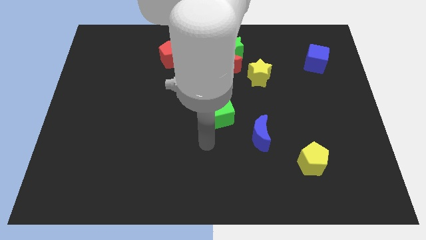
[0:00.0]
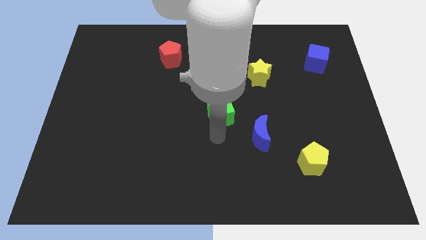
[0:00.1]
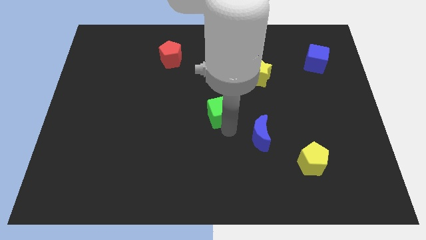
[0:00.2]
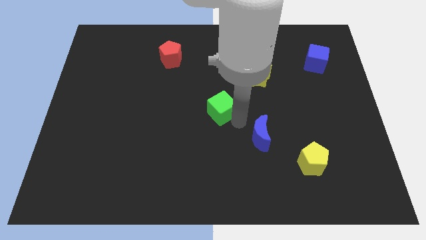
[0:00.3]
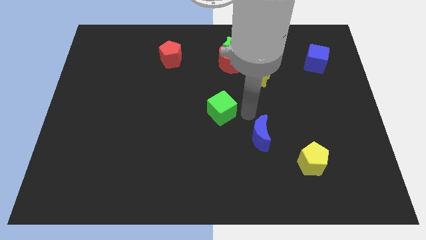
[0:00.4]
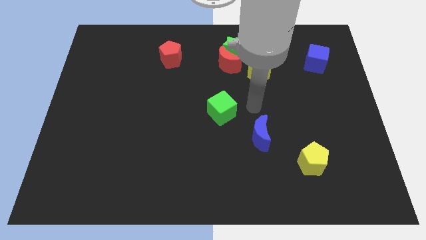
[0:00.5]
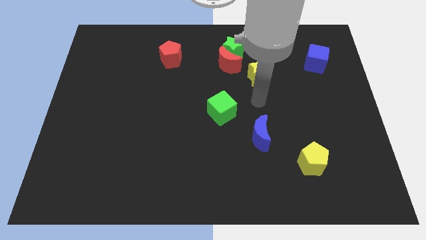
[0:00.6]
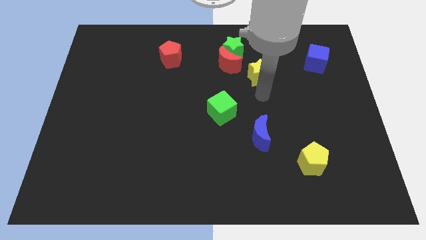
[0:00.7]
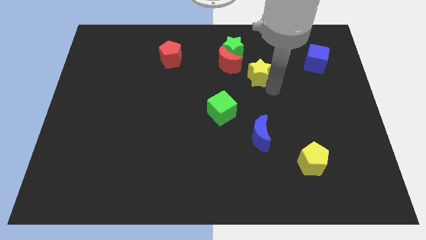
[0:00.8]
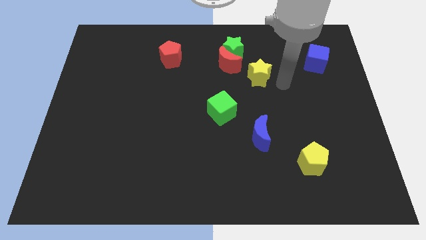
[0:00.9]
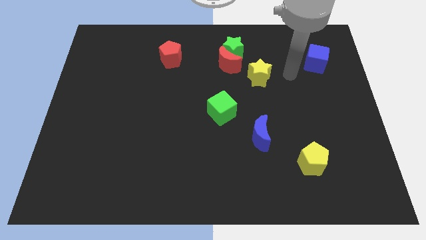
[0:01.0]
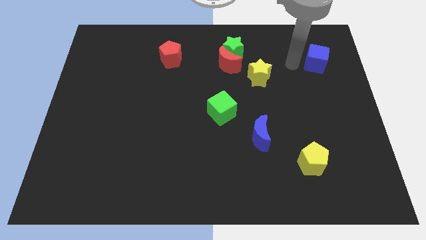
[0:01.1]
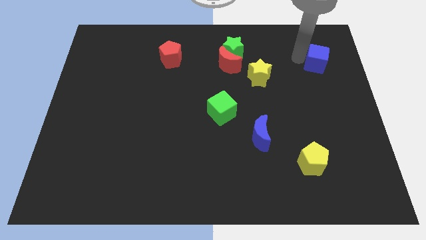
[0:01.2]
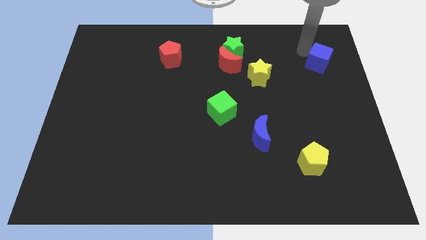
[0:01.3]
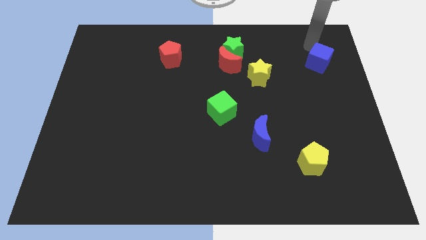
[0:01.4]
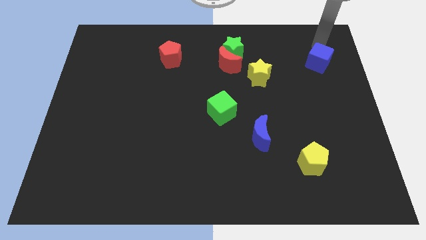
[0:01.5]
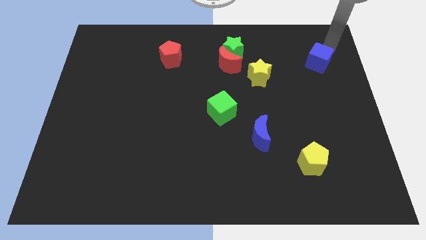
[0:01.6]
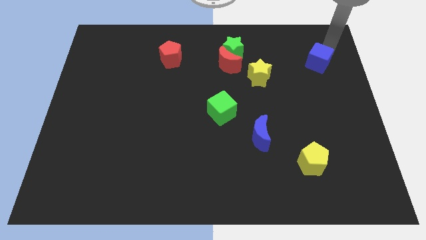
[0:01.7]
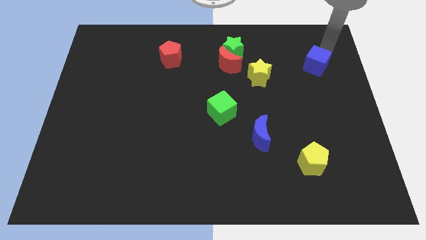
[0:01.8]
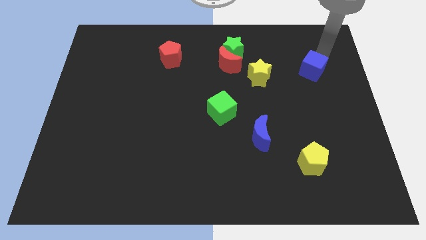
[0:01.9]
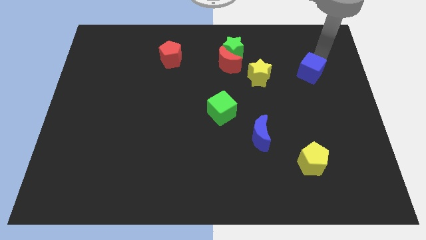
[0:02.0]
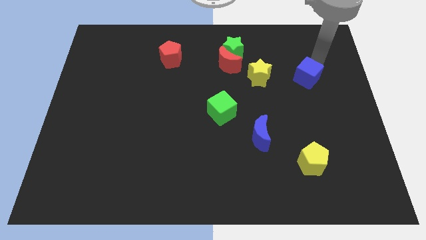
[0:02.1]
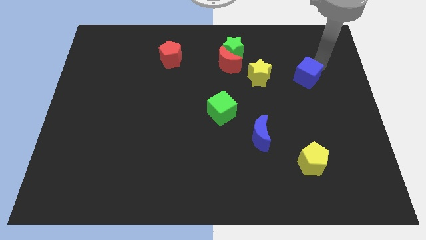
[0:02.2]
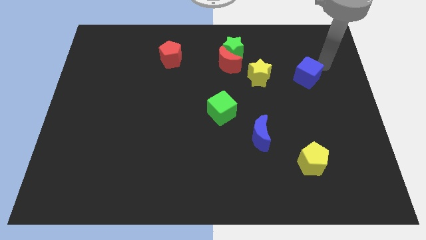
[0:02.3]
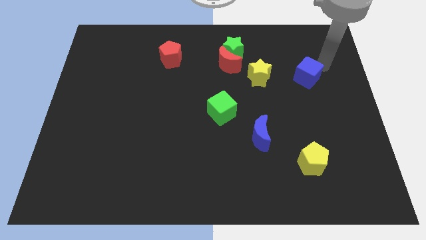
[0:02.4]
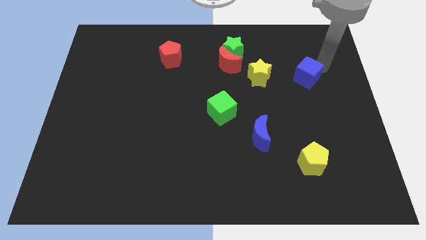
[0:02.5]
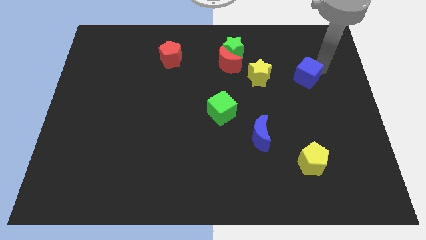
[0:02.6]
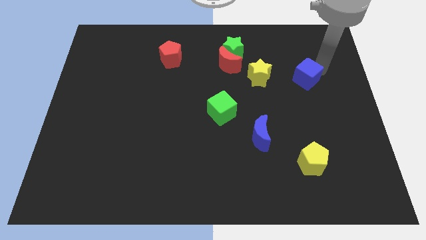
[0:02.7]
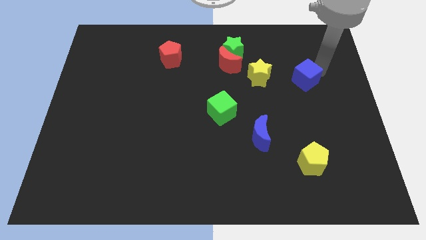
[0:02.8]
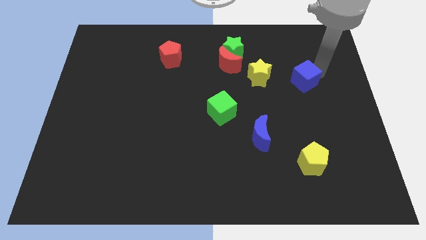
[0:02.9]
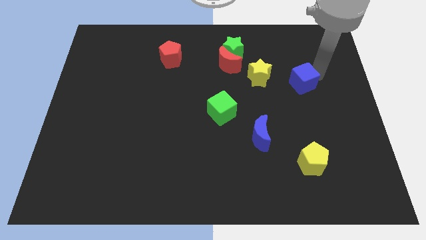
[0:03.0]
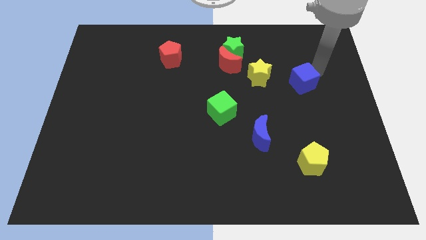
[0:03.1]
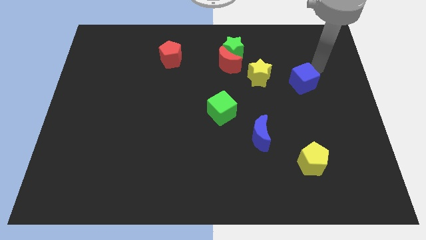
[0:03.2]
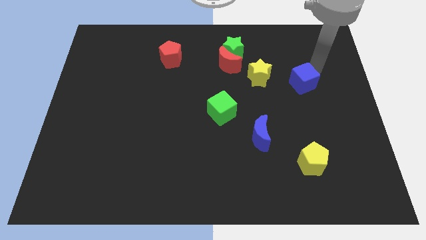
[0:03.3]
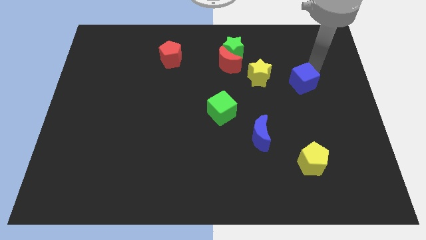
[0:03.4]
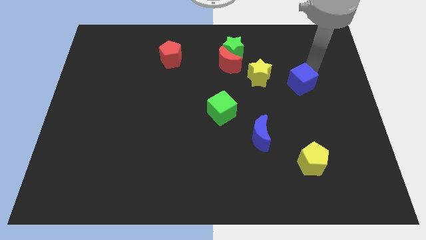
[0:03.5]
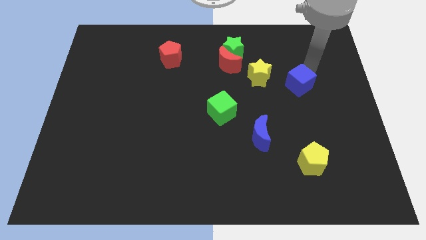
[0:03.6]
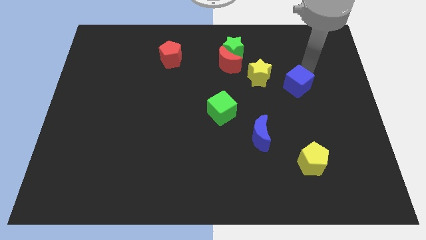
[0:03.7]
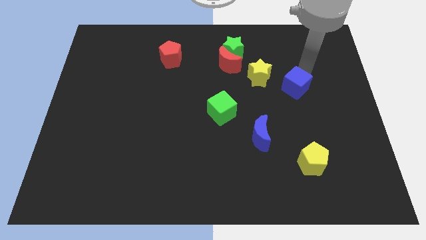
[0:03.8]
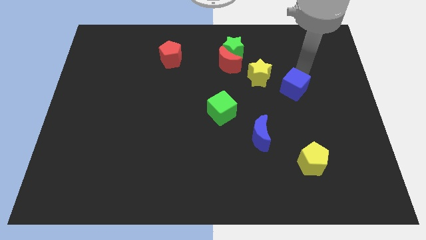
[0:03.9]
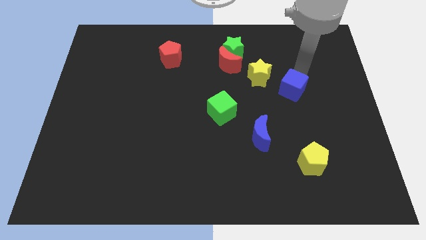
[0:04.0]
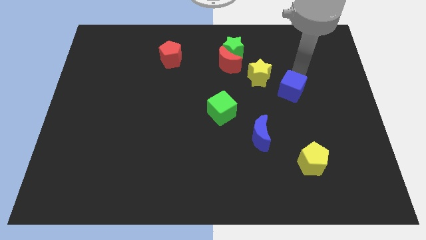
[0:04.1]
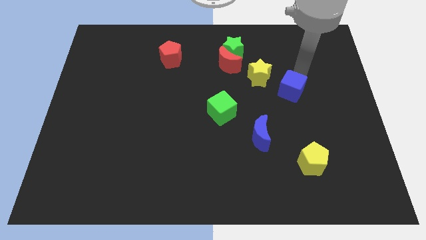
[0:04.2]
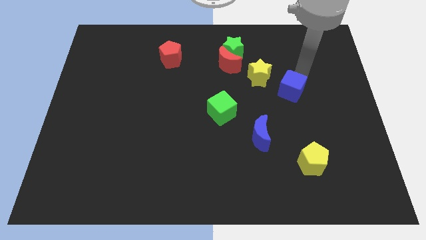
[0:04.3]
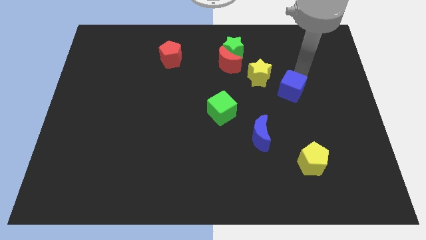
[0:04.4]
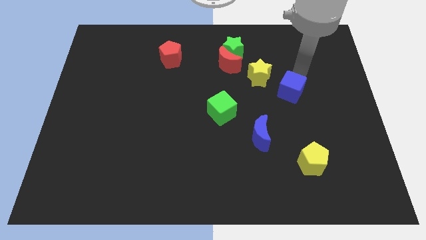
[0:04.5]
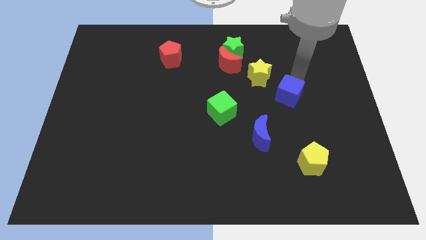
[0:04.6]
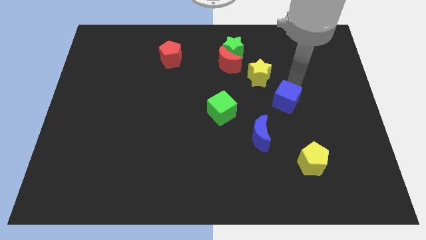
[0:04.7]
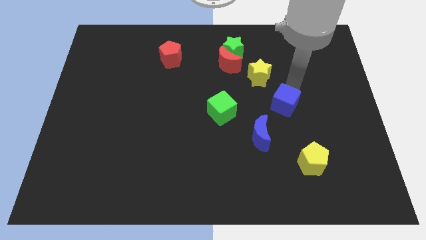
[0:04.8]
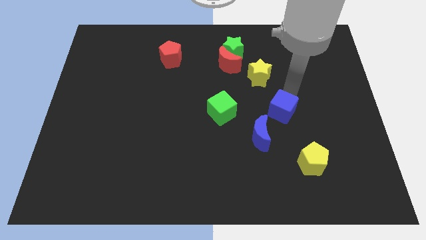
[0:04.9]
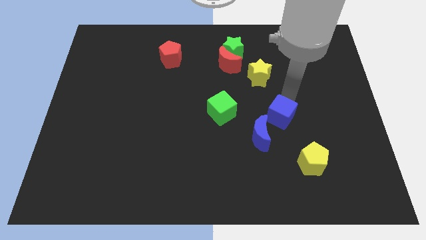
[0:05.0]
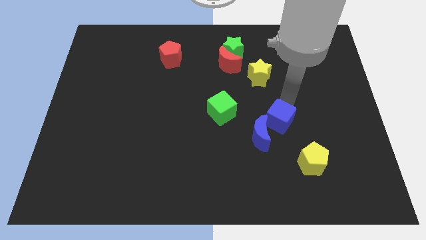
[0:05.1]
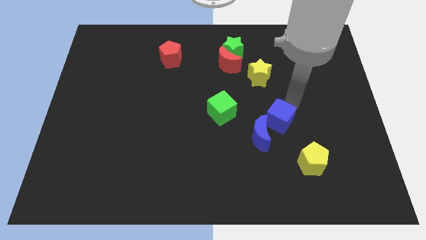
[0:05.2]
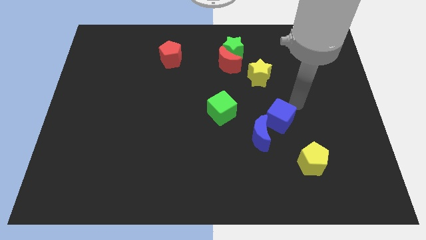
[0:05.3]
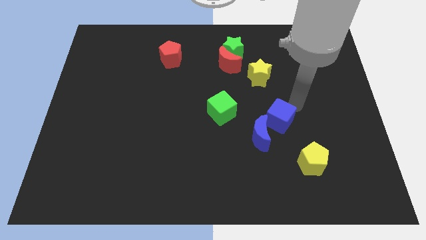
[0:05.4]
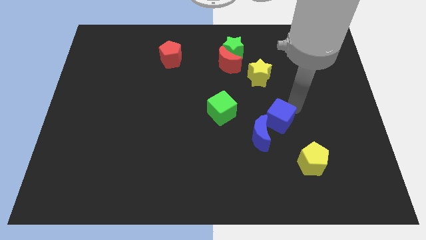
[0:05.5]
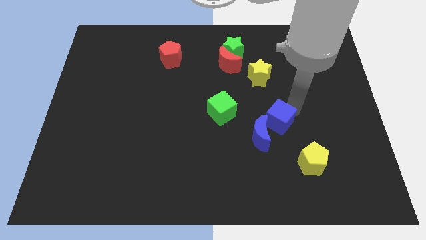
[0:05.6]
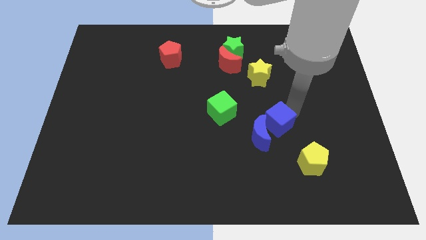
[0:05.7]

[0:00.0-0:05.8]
move the blue cube close to the blue moon

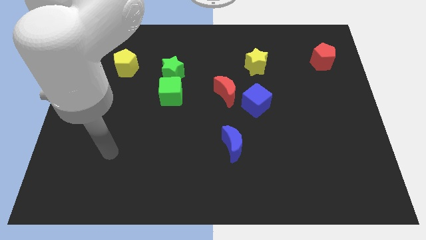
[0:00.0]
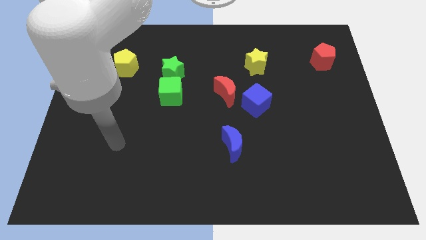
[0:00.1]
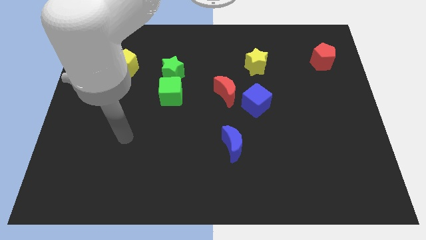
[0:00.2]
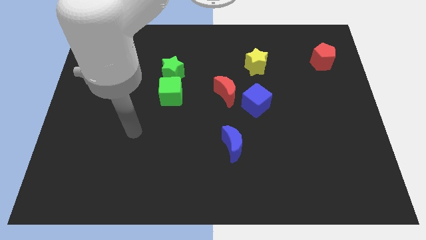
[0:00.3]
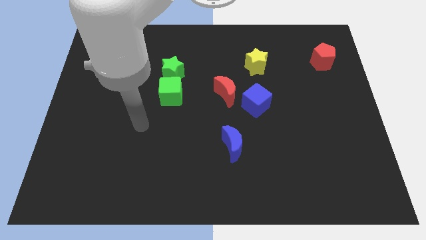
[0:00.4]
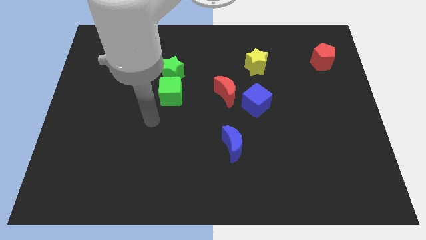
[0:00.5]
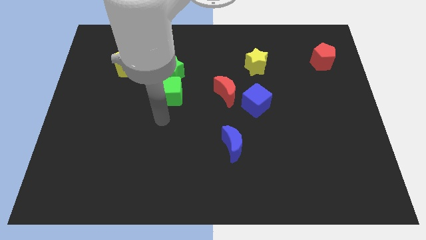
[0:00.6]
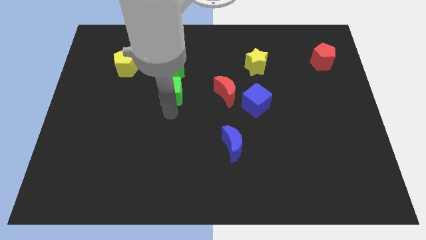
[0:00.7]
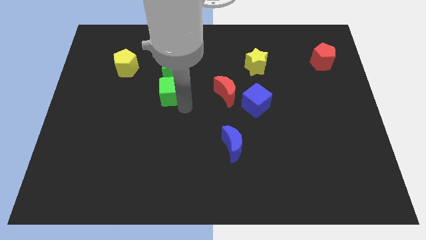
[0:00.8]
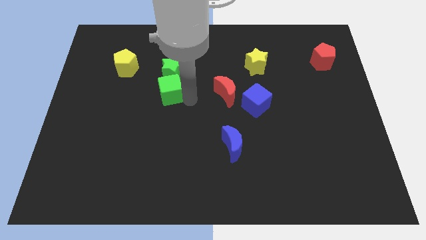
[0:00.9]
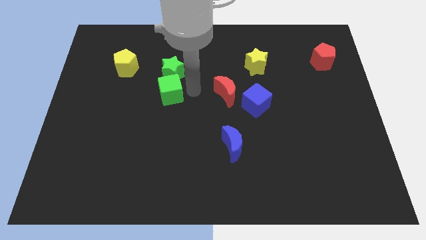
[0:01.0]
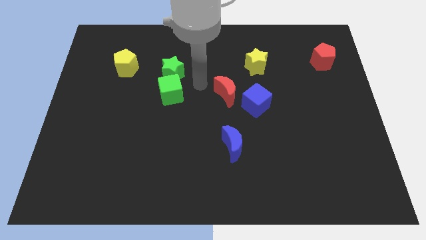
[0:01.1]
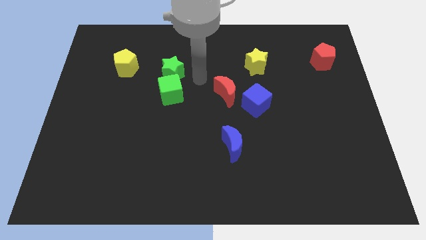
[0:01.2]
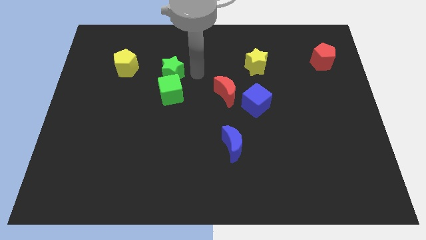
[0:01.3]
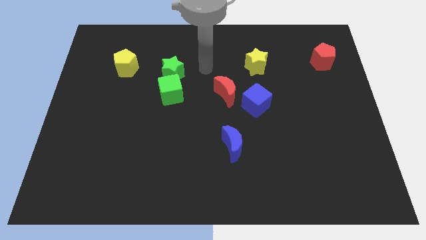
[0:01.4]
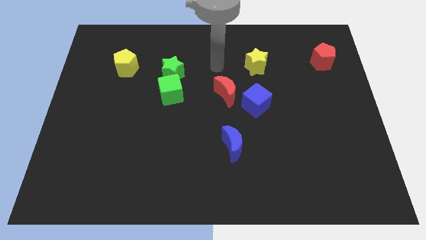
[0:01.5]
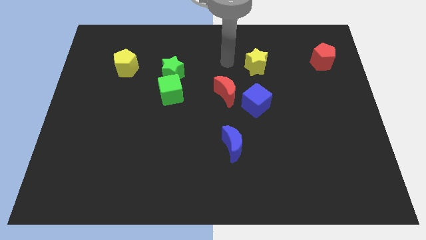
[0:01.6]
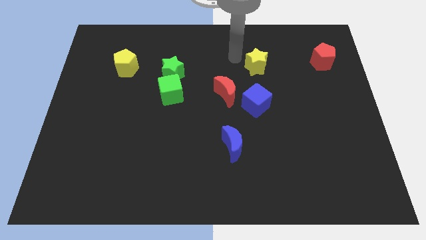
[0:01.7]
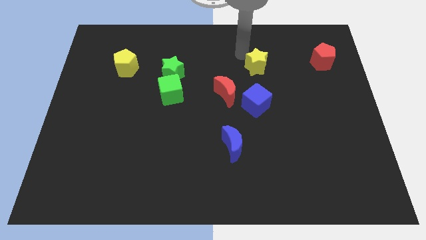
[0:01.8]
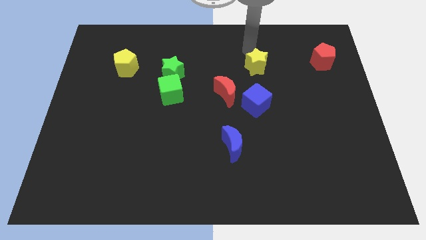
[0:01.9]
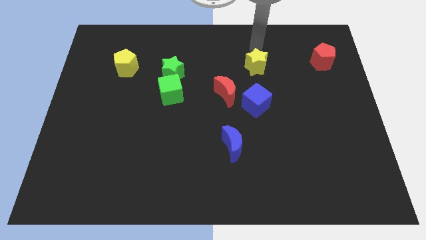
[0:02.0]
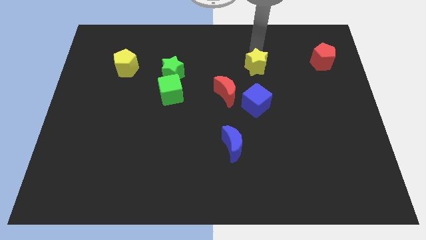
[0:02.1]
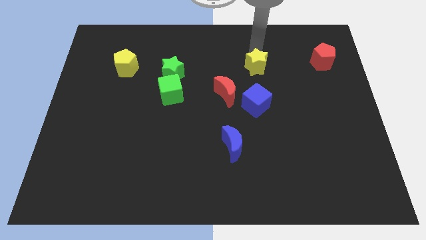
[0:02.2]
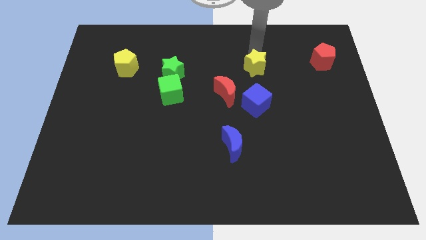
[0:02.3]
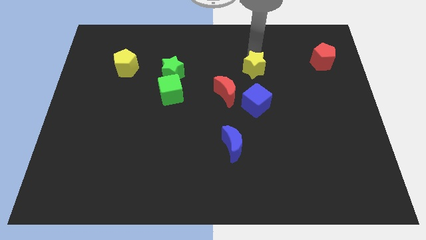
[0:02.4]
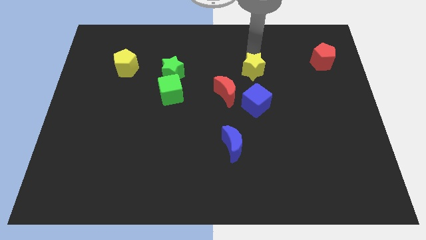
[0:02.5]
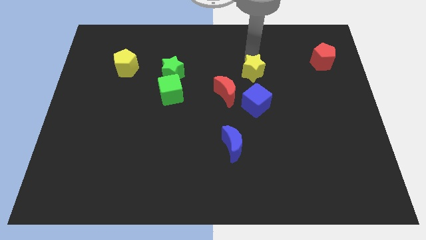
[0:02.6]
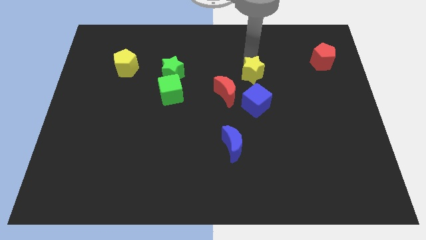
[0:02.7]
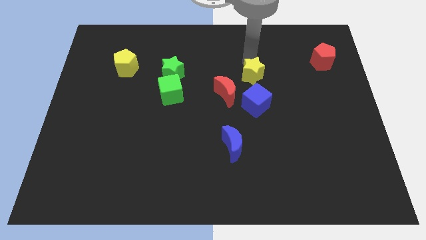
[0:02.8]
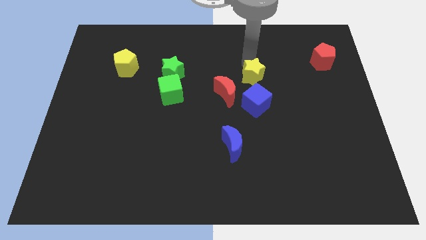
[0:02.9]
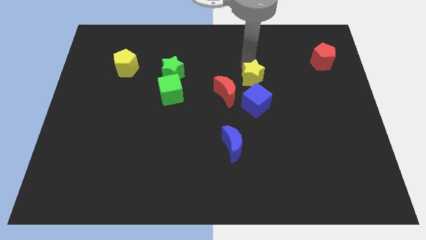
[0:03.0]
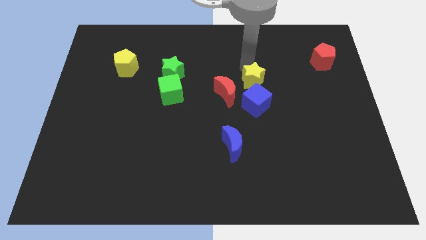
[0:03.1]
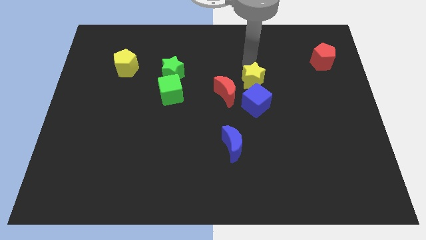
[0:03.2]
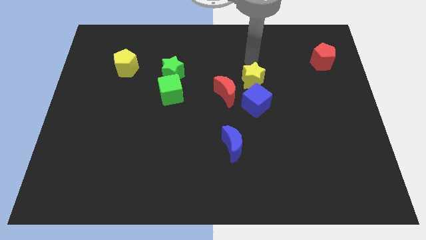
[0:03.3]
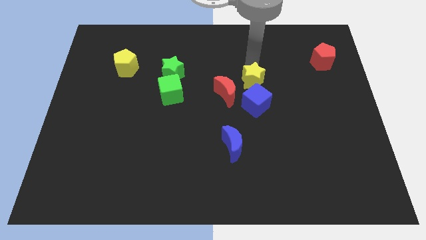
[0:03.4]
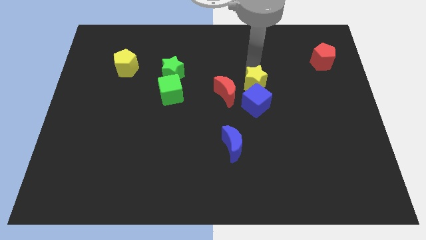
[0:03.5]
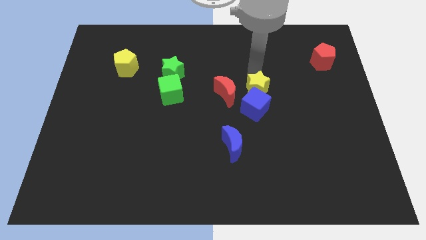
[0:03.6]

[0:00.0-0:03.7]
slide the yellow star close to the blue cube
